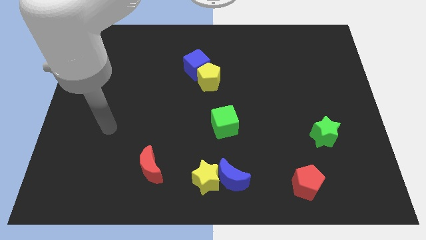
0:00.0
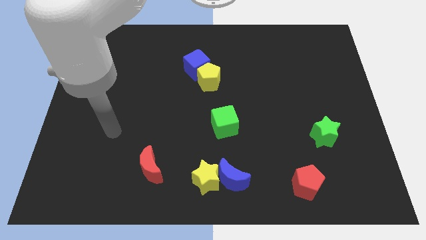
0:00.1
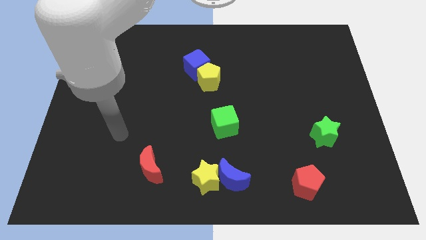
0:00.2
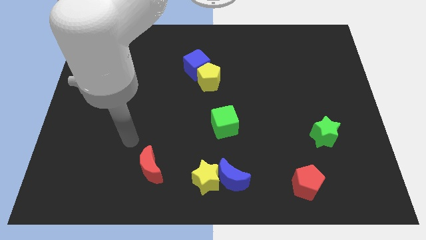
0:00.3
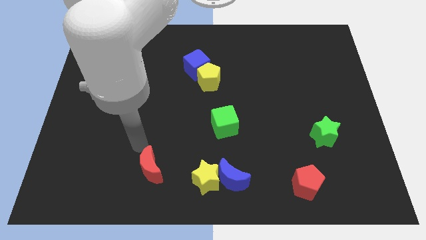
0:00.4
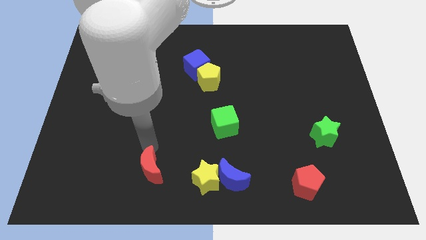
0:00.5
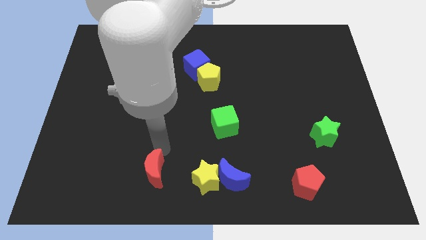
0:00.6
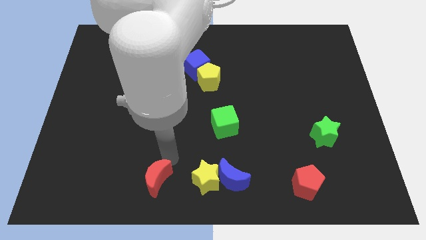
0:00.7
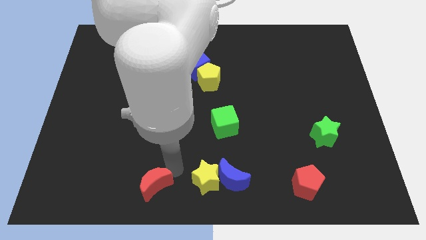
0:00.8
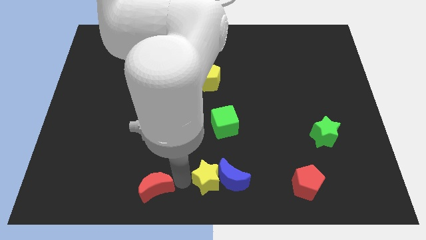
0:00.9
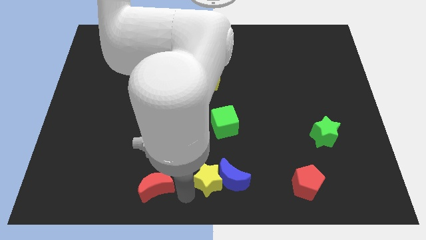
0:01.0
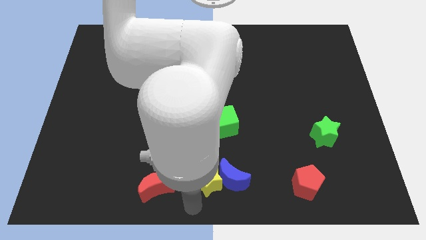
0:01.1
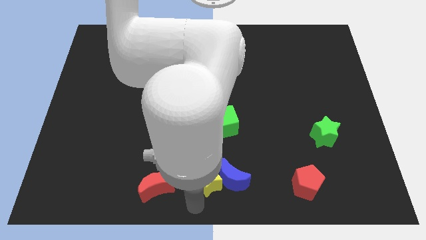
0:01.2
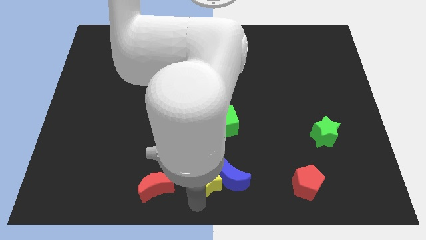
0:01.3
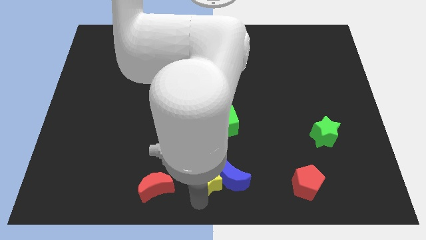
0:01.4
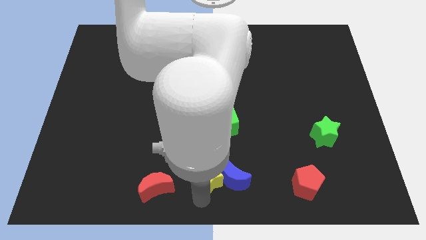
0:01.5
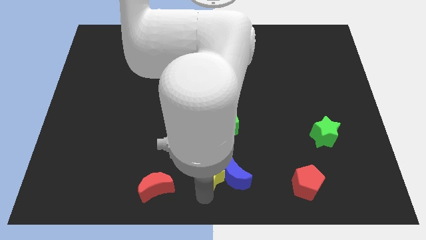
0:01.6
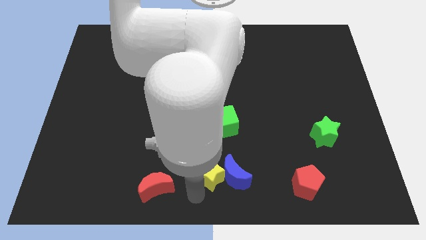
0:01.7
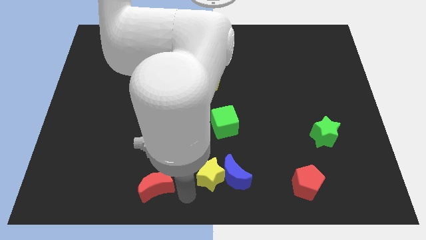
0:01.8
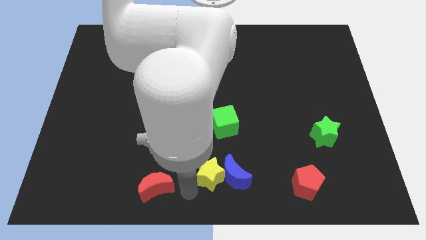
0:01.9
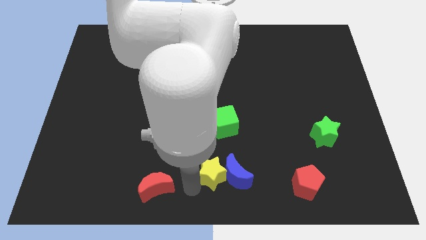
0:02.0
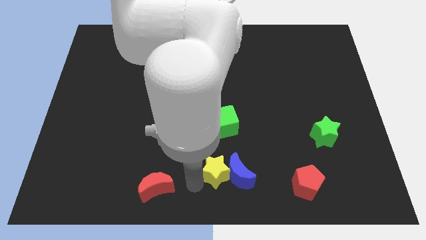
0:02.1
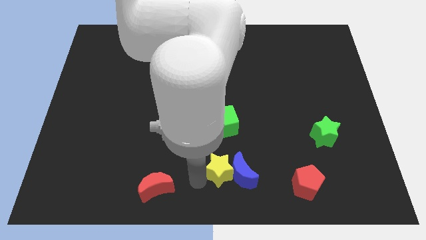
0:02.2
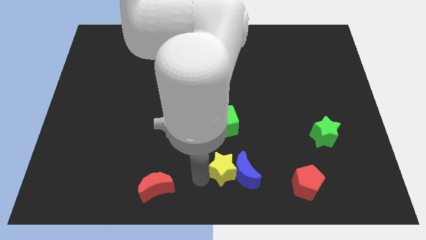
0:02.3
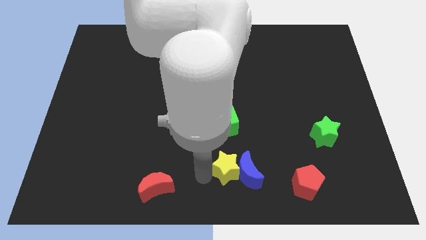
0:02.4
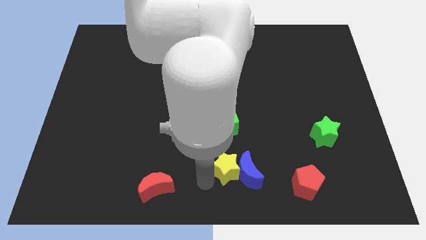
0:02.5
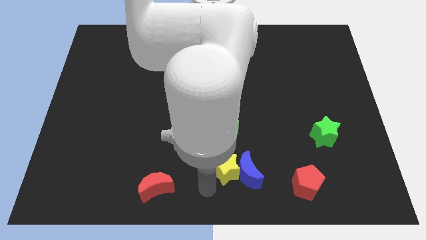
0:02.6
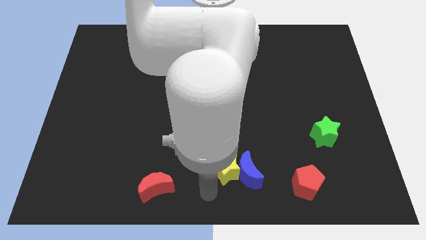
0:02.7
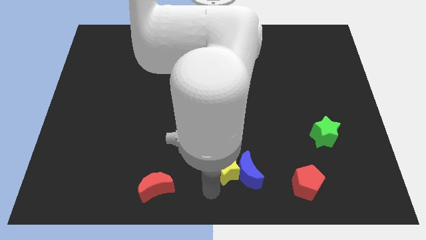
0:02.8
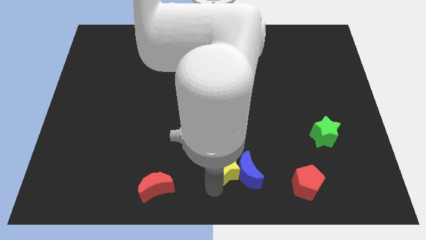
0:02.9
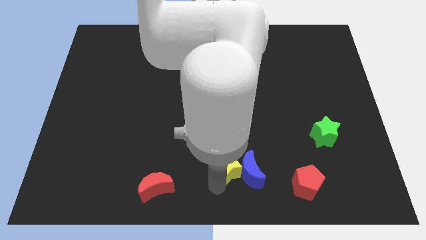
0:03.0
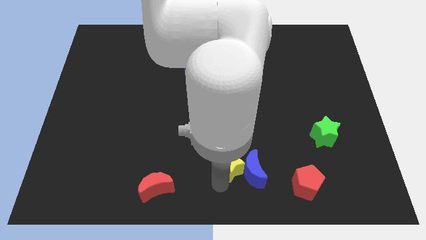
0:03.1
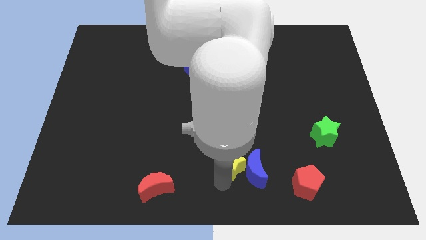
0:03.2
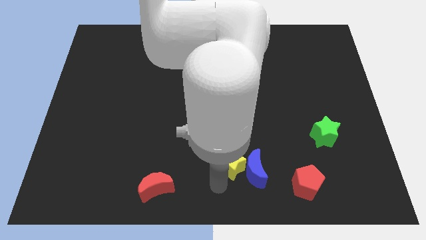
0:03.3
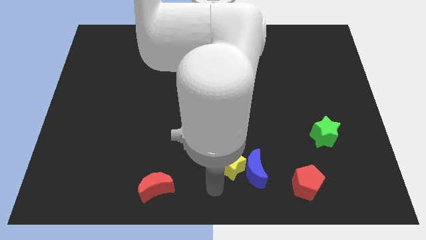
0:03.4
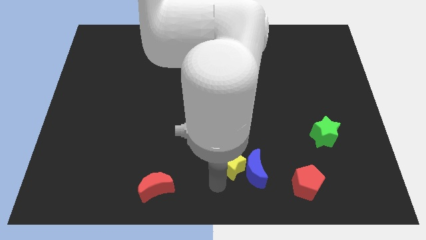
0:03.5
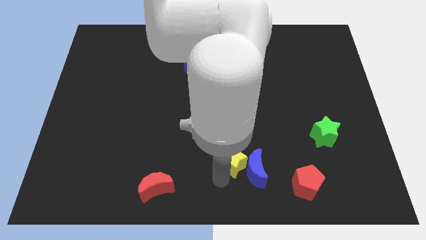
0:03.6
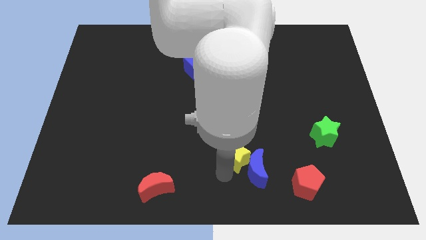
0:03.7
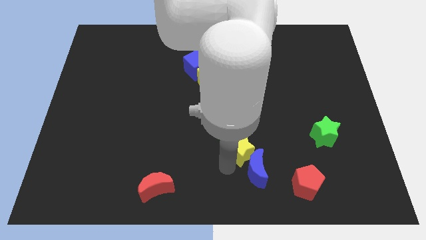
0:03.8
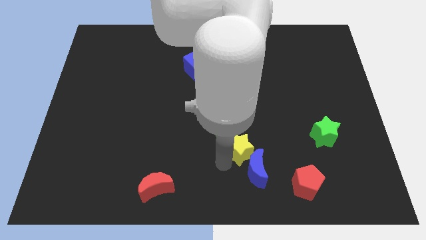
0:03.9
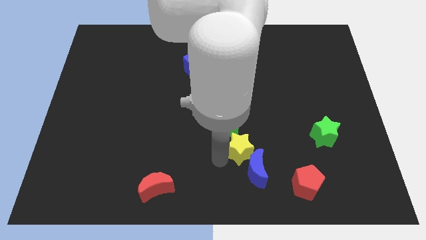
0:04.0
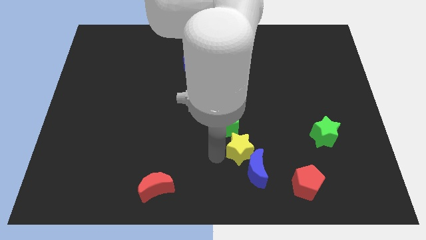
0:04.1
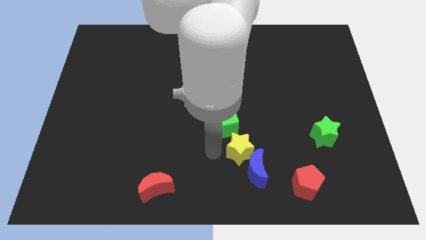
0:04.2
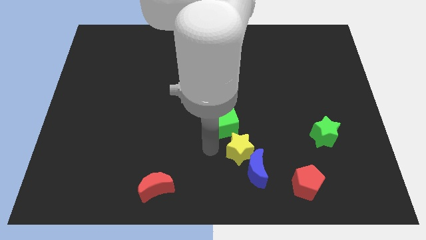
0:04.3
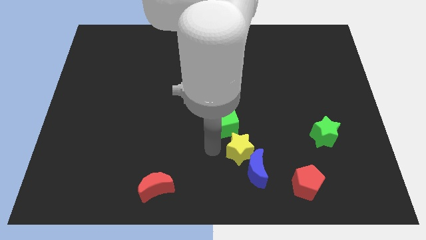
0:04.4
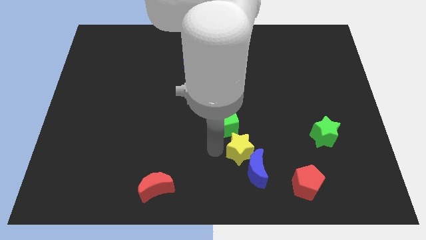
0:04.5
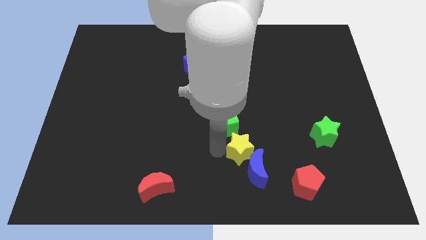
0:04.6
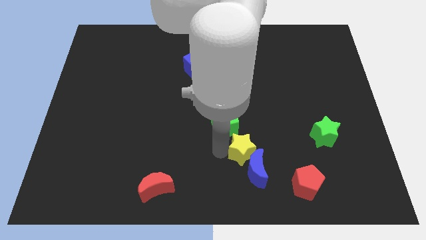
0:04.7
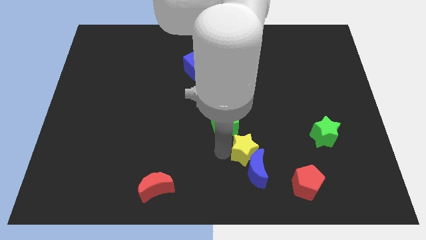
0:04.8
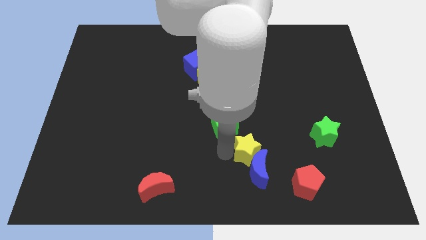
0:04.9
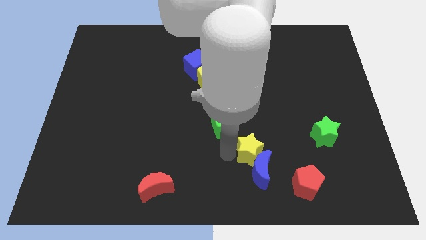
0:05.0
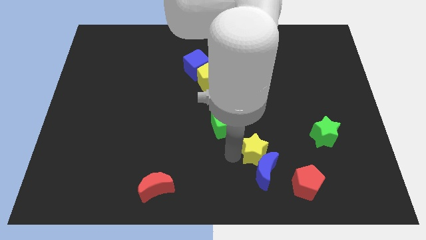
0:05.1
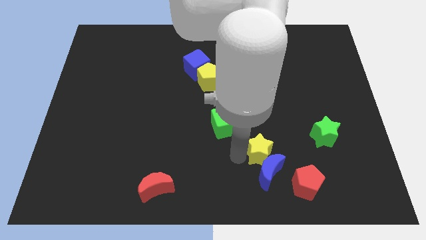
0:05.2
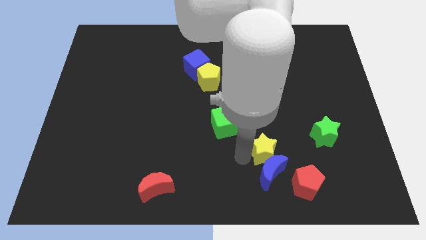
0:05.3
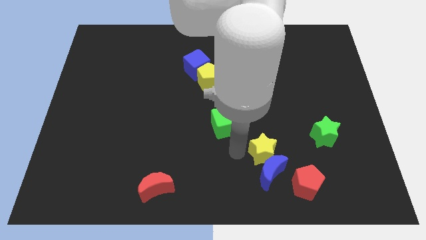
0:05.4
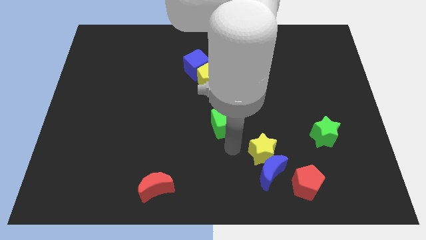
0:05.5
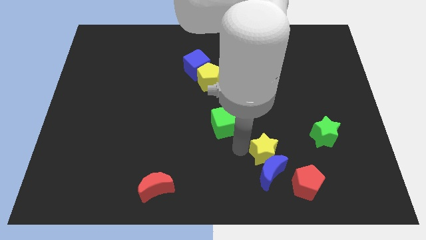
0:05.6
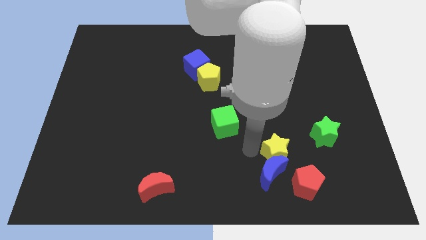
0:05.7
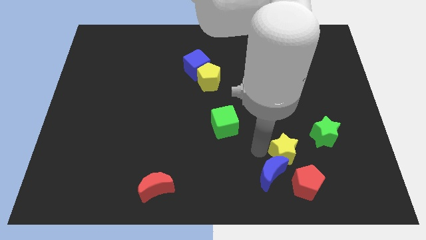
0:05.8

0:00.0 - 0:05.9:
put the yellow star to the bottom left side of the green star

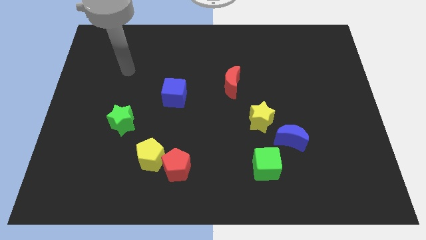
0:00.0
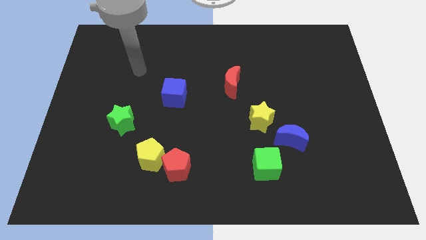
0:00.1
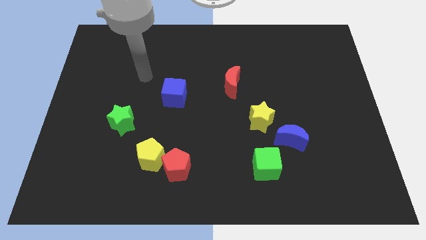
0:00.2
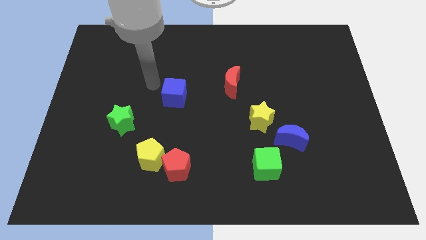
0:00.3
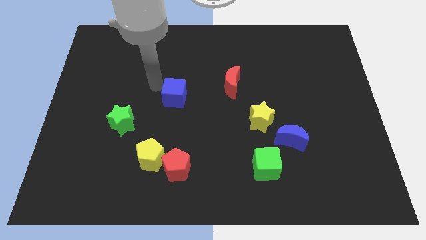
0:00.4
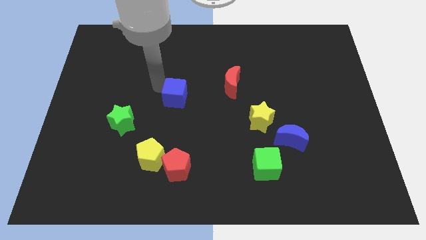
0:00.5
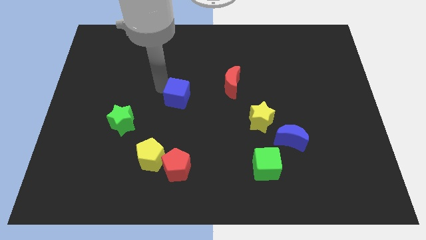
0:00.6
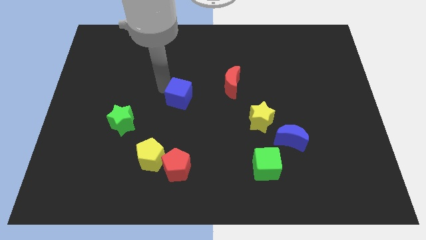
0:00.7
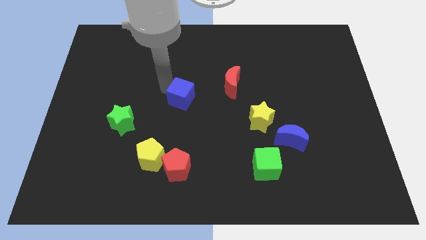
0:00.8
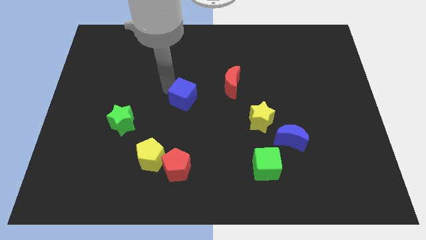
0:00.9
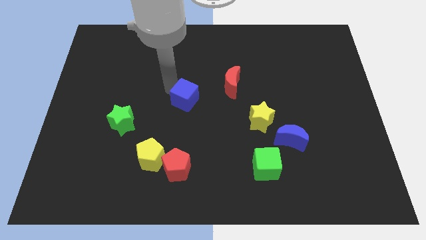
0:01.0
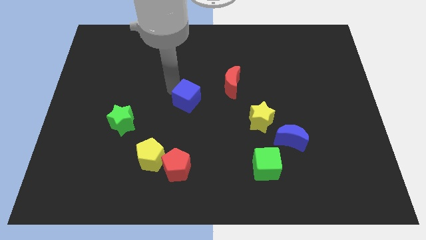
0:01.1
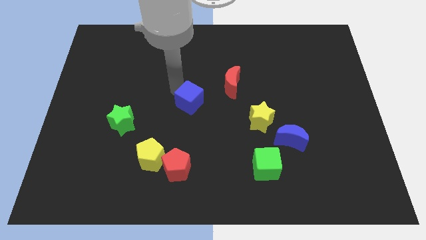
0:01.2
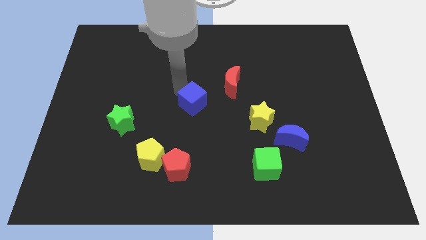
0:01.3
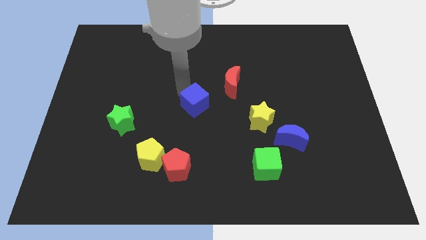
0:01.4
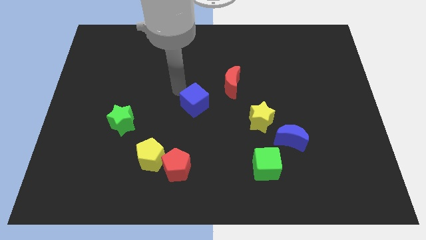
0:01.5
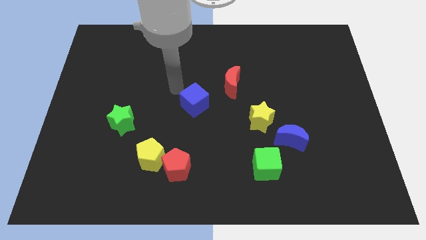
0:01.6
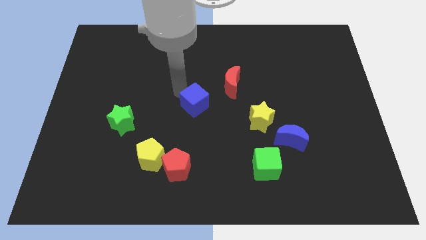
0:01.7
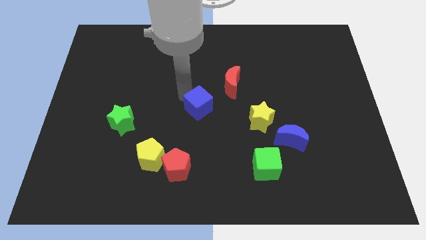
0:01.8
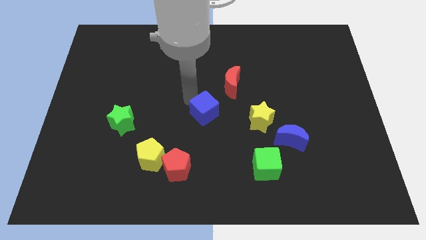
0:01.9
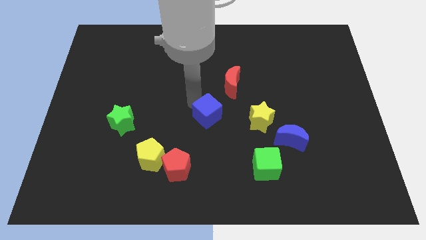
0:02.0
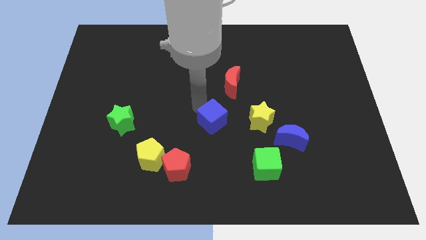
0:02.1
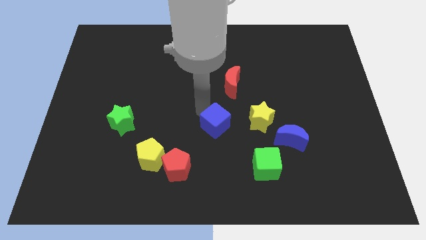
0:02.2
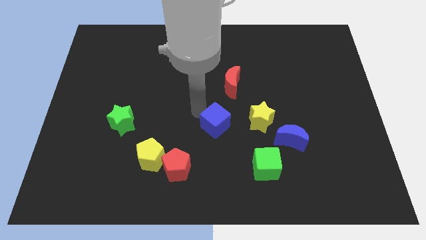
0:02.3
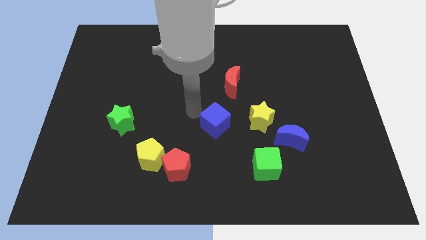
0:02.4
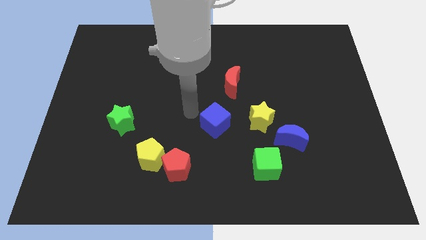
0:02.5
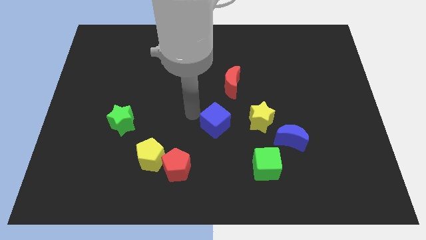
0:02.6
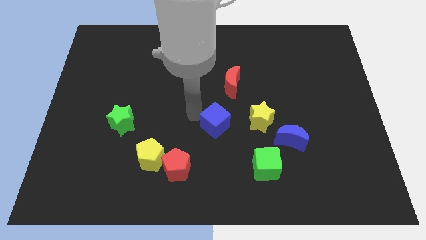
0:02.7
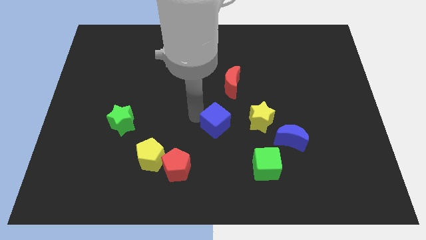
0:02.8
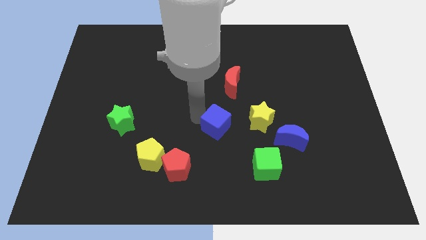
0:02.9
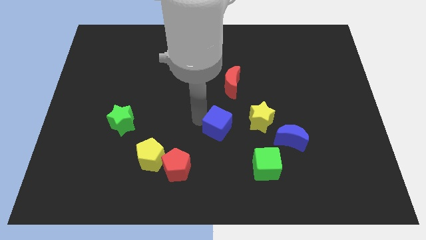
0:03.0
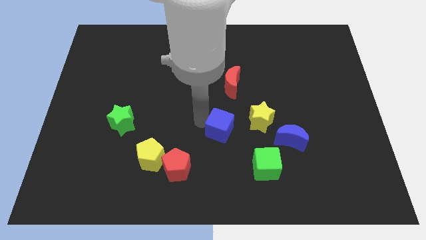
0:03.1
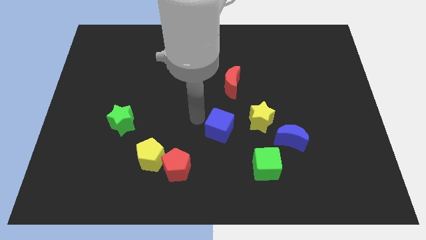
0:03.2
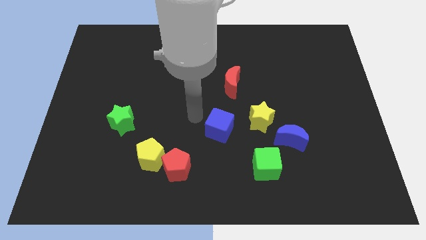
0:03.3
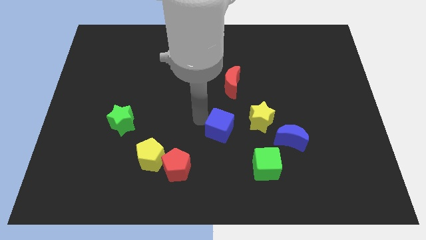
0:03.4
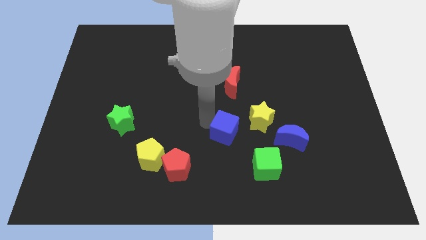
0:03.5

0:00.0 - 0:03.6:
move the blue cube to the left side of the blue moon
